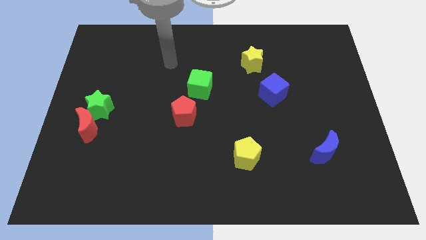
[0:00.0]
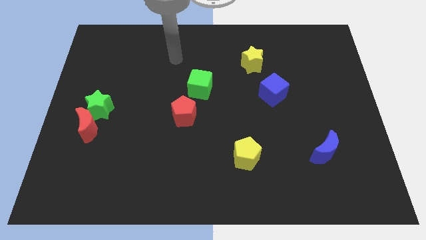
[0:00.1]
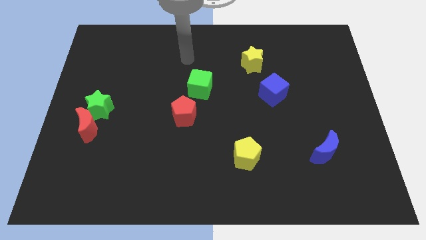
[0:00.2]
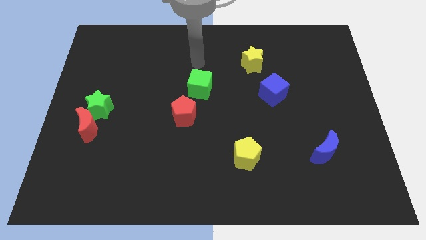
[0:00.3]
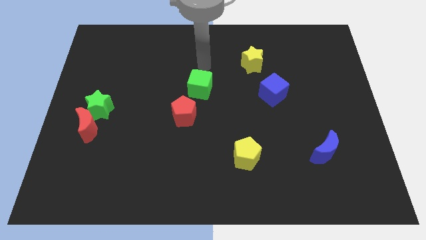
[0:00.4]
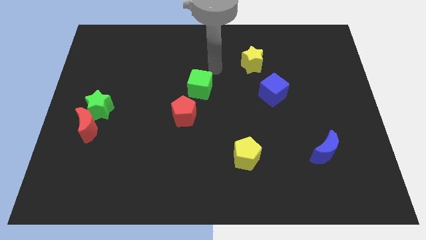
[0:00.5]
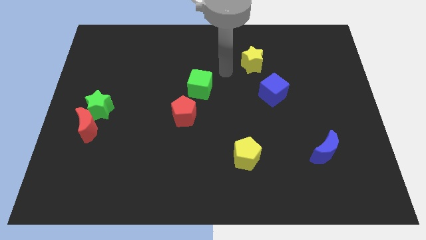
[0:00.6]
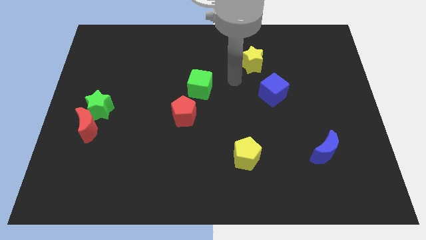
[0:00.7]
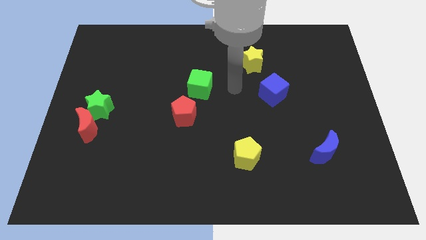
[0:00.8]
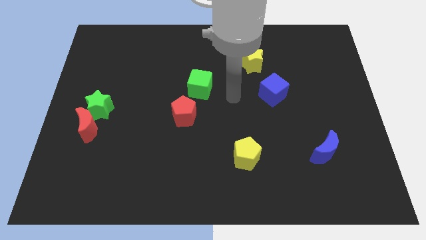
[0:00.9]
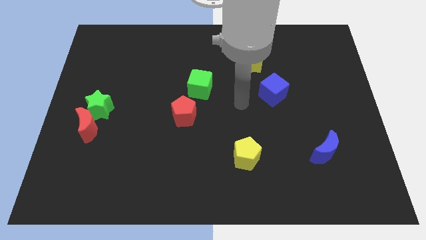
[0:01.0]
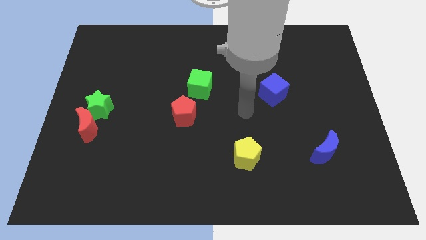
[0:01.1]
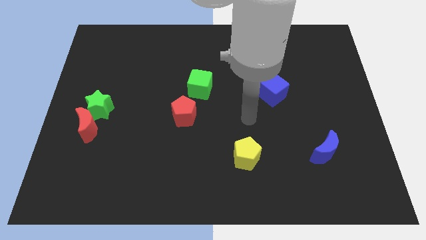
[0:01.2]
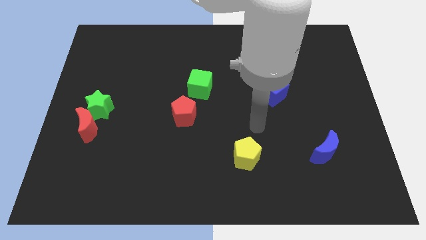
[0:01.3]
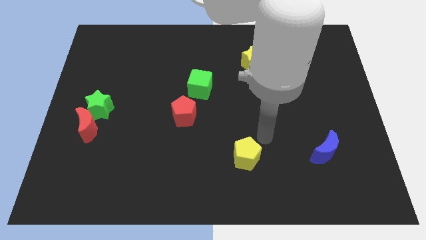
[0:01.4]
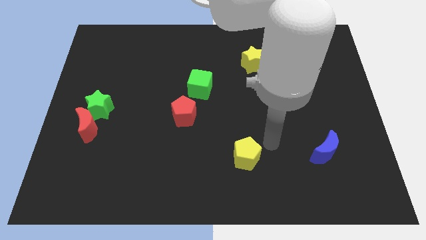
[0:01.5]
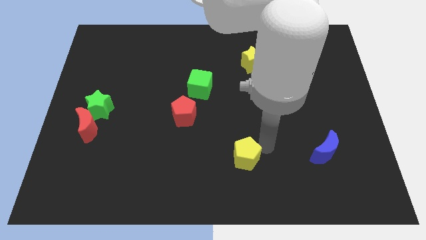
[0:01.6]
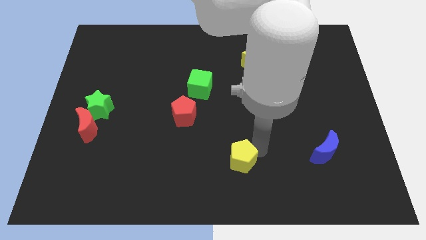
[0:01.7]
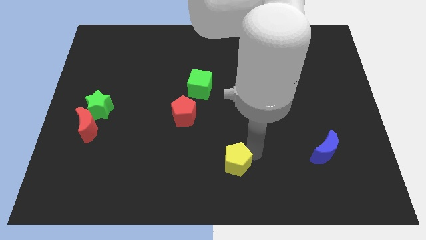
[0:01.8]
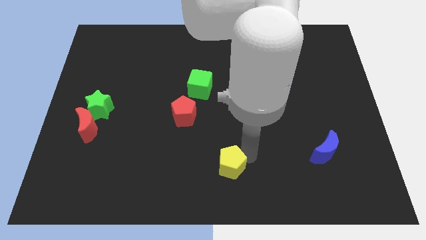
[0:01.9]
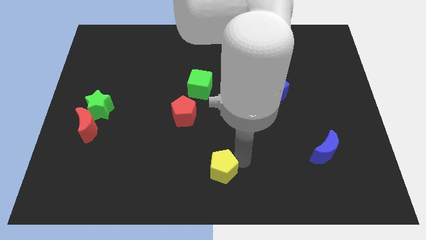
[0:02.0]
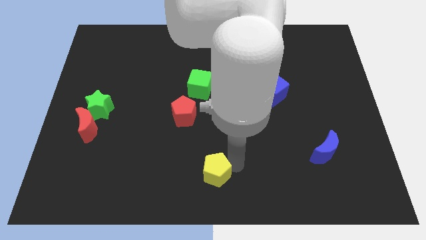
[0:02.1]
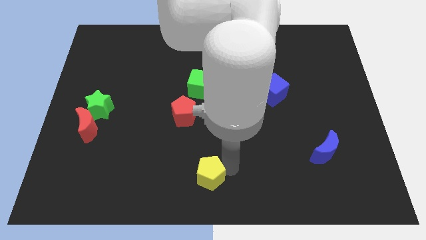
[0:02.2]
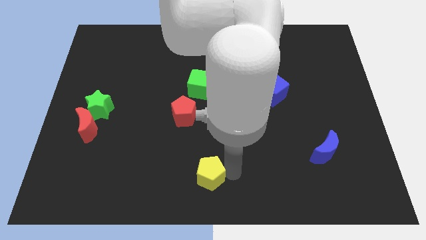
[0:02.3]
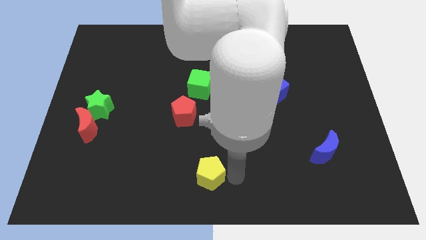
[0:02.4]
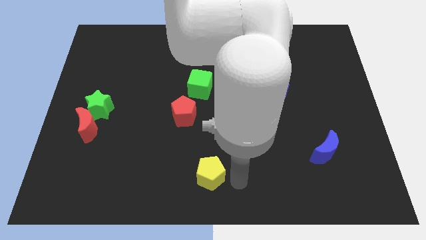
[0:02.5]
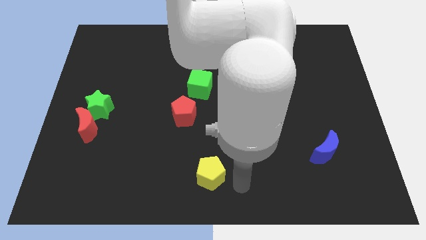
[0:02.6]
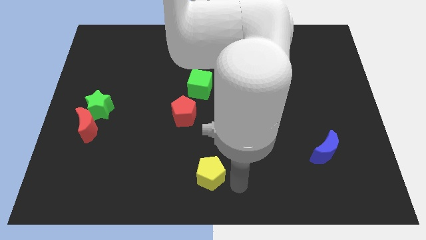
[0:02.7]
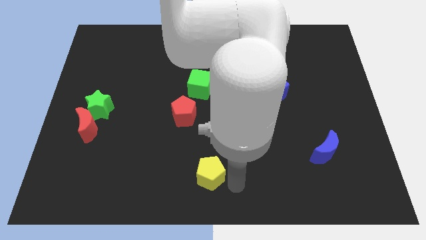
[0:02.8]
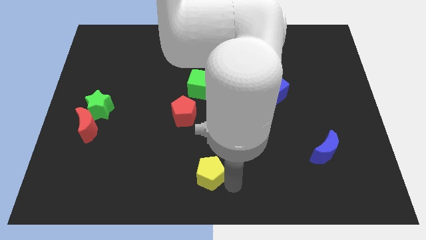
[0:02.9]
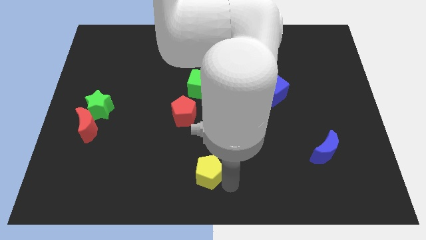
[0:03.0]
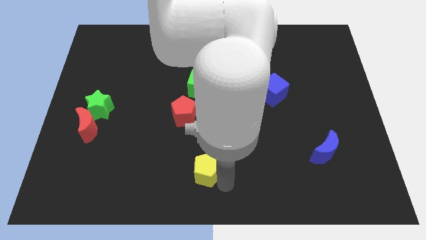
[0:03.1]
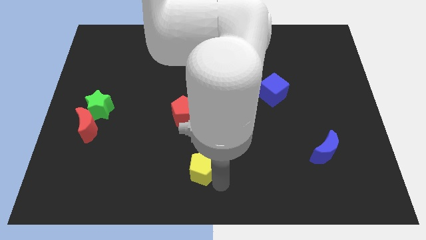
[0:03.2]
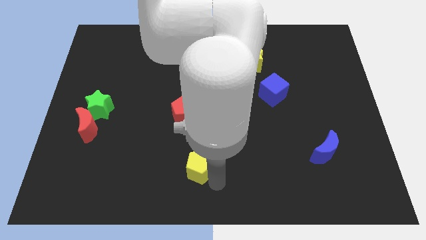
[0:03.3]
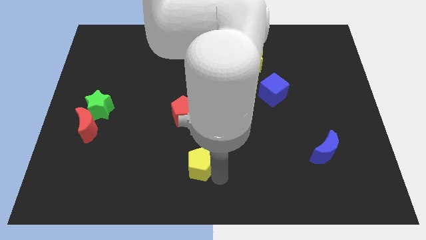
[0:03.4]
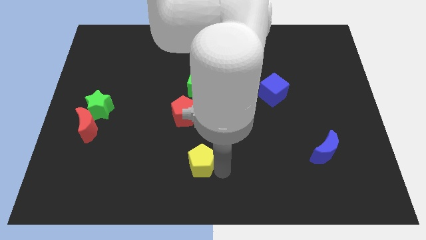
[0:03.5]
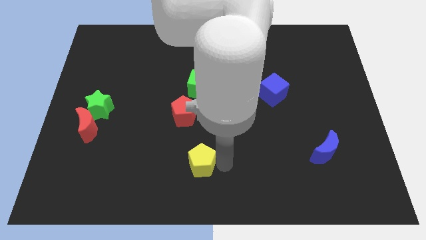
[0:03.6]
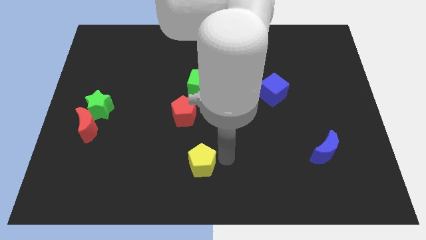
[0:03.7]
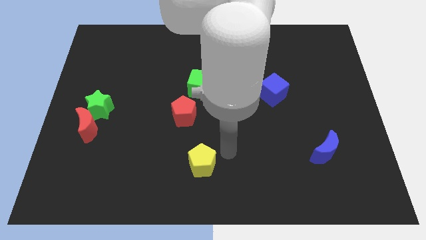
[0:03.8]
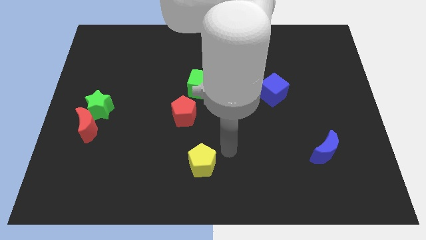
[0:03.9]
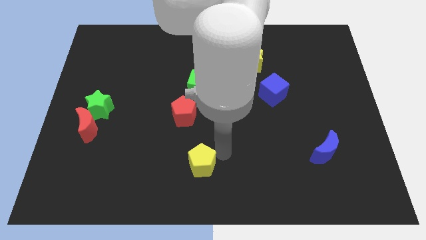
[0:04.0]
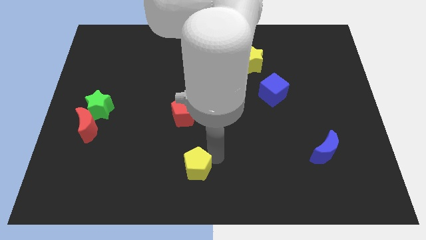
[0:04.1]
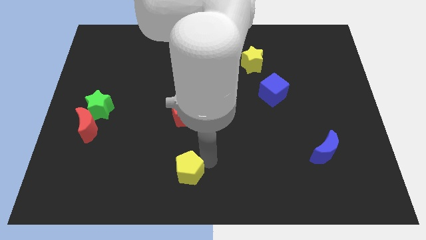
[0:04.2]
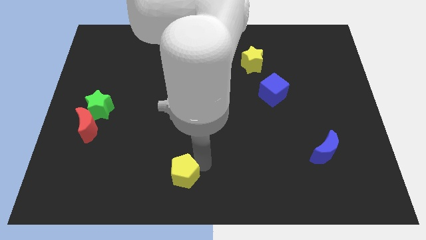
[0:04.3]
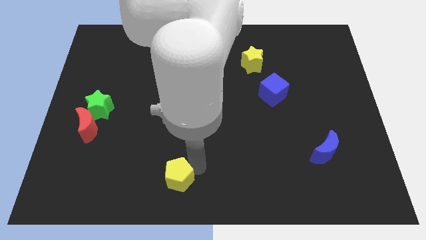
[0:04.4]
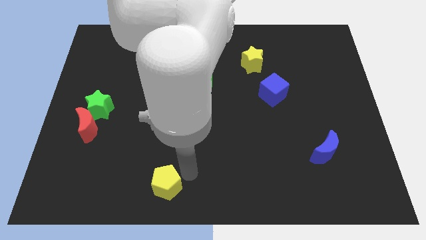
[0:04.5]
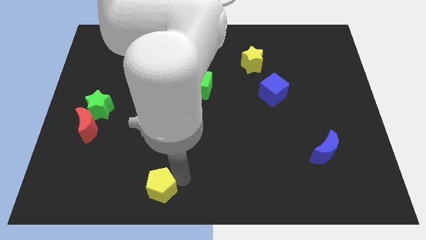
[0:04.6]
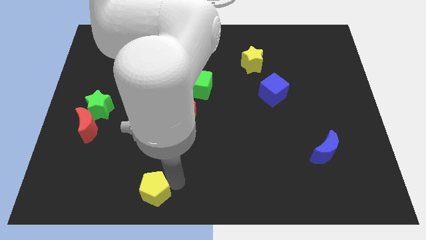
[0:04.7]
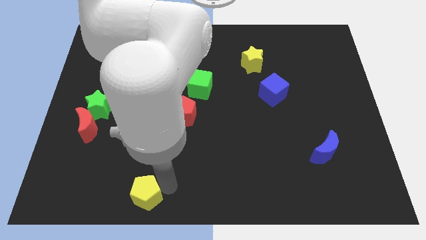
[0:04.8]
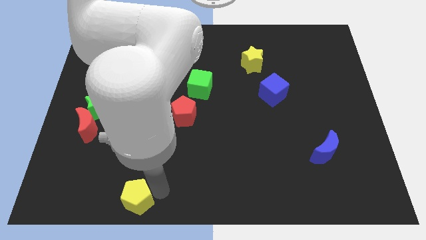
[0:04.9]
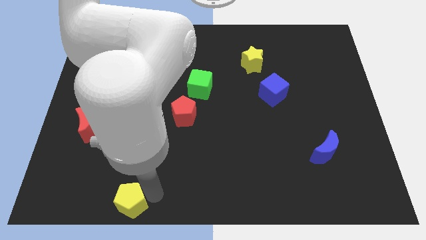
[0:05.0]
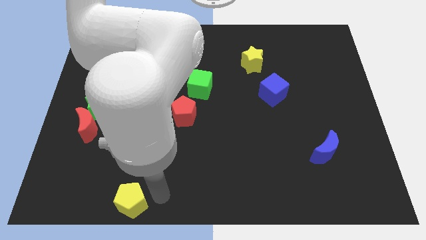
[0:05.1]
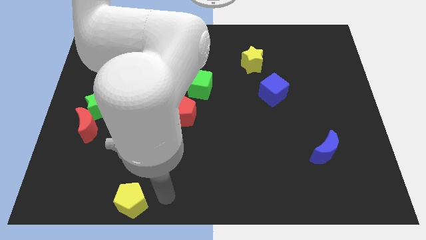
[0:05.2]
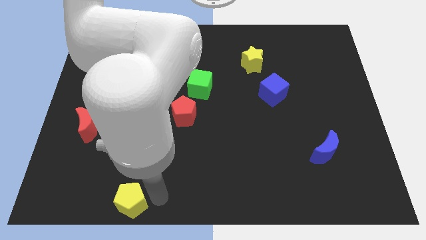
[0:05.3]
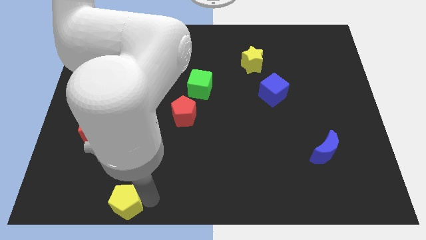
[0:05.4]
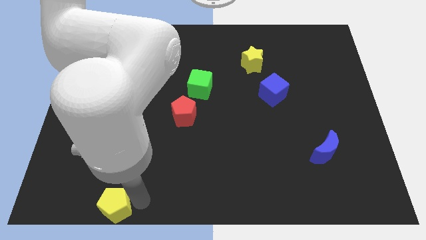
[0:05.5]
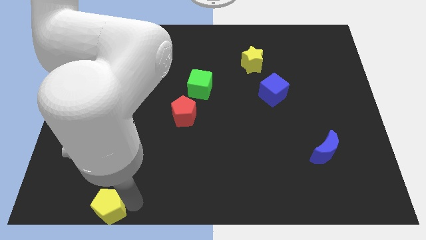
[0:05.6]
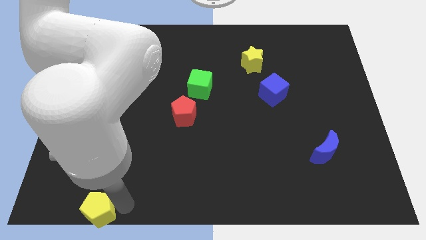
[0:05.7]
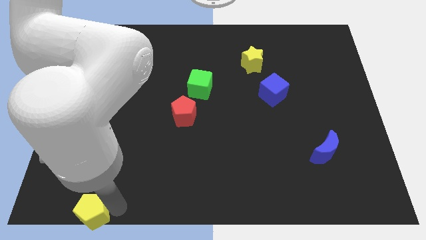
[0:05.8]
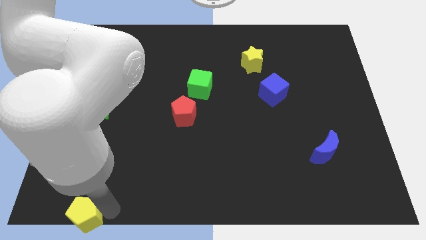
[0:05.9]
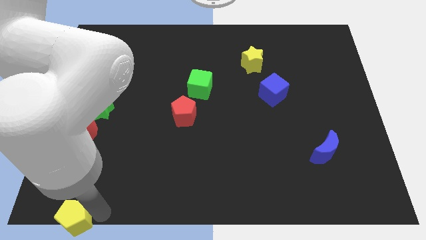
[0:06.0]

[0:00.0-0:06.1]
put the yellow pentagon to the bottom left
